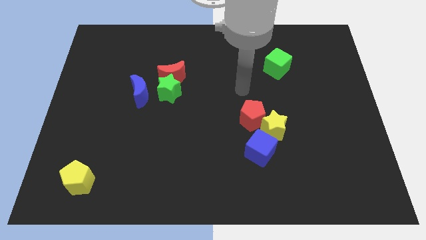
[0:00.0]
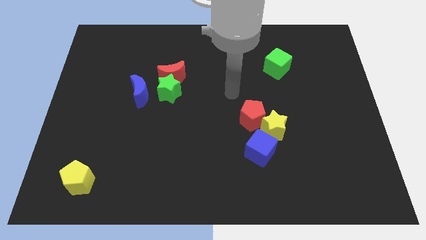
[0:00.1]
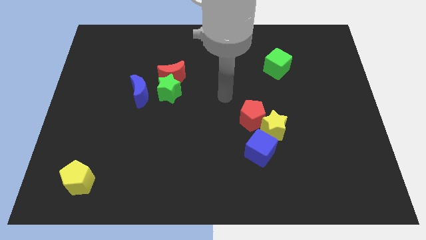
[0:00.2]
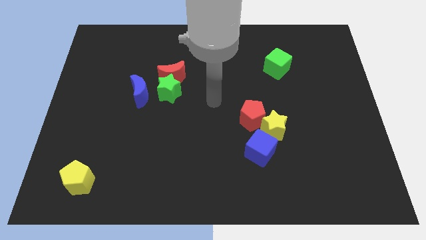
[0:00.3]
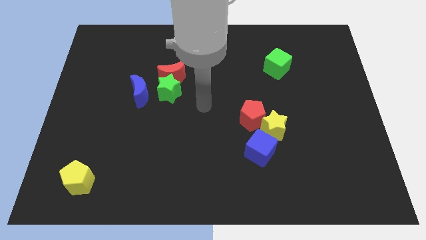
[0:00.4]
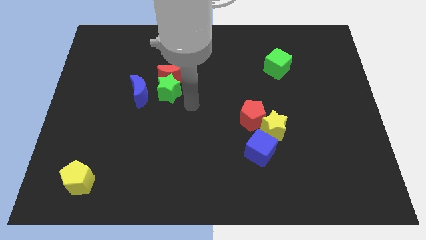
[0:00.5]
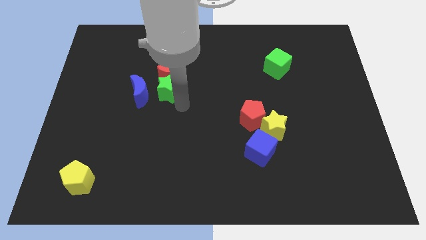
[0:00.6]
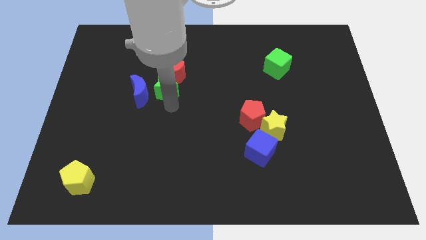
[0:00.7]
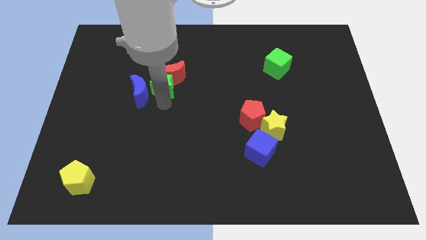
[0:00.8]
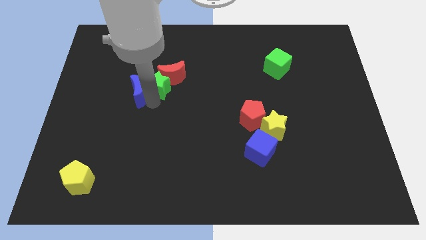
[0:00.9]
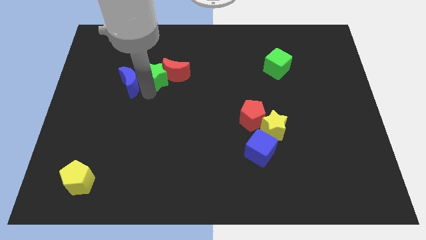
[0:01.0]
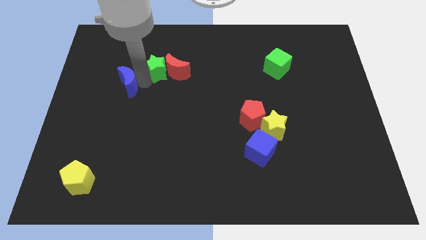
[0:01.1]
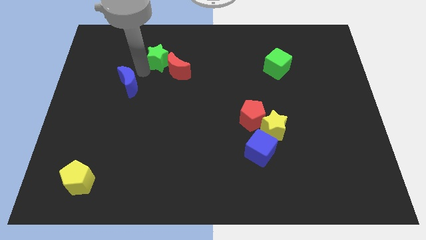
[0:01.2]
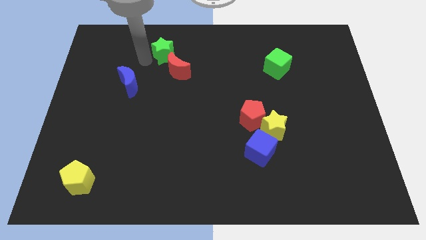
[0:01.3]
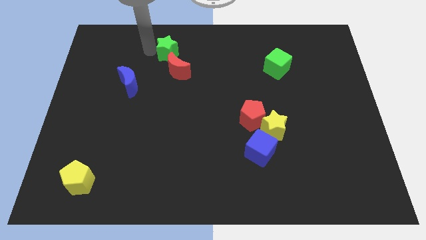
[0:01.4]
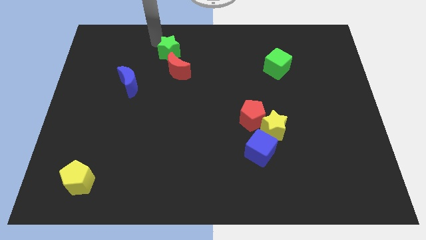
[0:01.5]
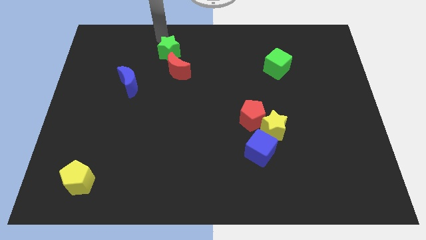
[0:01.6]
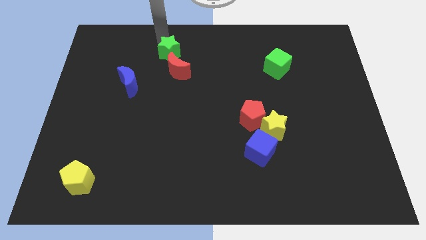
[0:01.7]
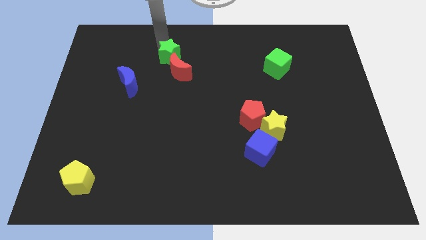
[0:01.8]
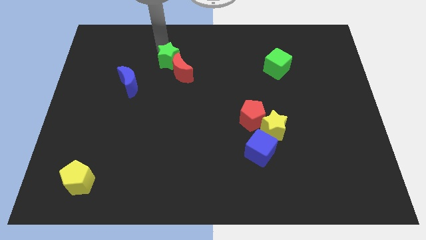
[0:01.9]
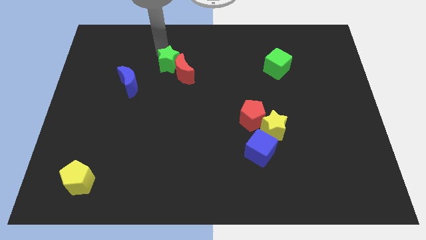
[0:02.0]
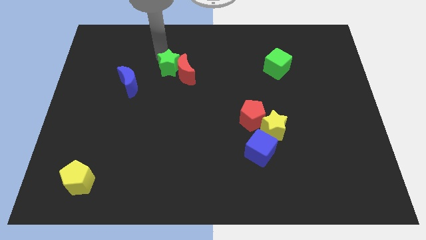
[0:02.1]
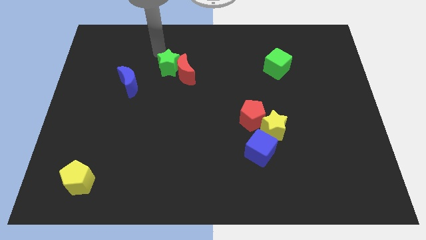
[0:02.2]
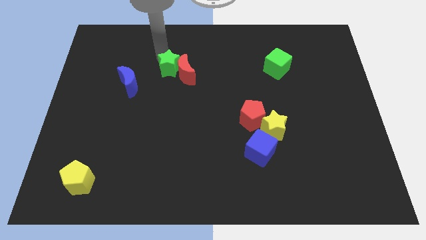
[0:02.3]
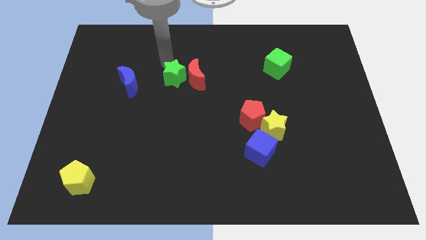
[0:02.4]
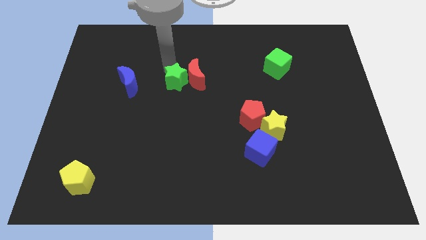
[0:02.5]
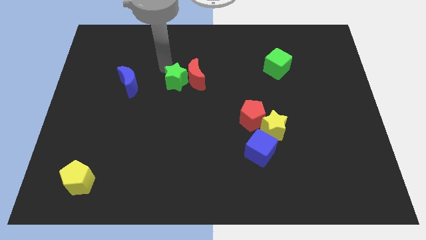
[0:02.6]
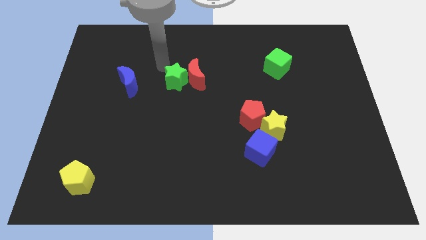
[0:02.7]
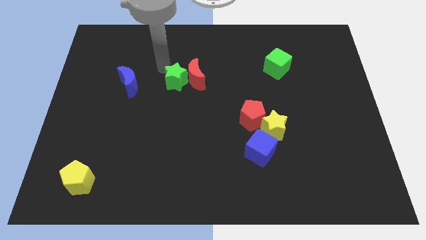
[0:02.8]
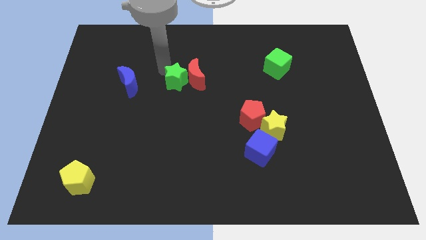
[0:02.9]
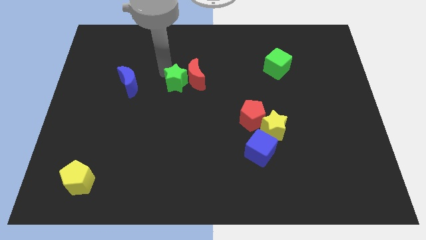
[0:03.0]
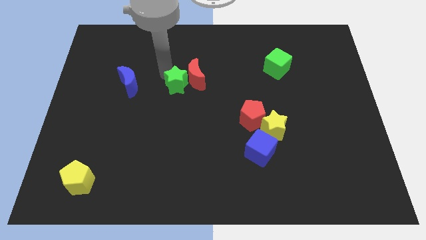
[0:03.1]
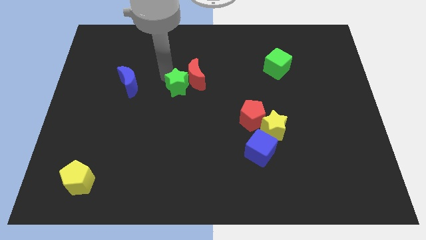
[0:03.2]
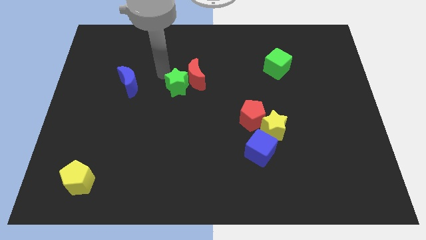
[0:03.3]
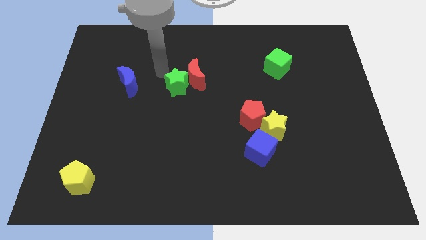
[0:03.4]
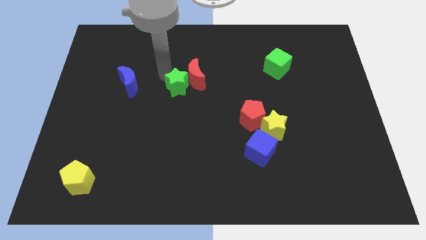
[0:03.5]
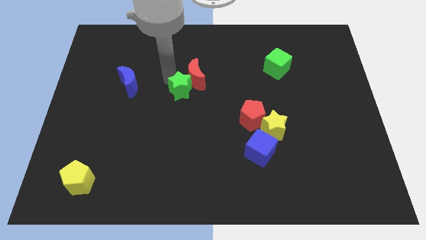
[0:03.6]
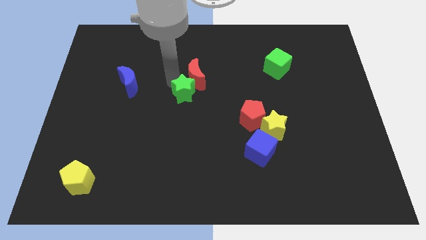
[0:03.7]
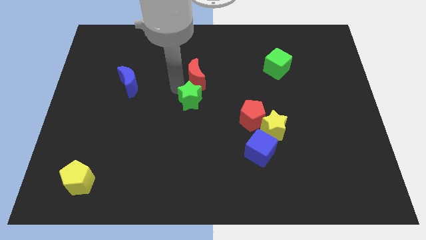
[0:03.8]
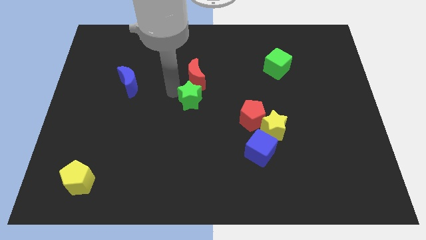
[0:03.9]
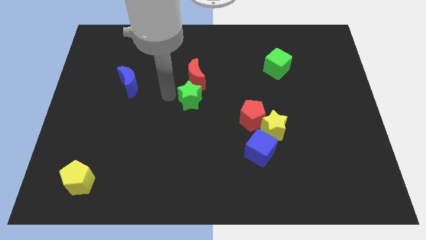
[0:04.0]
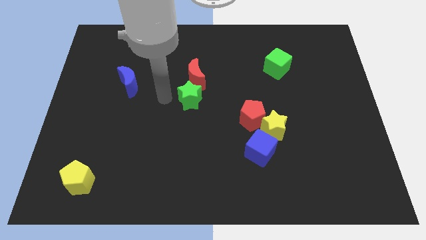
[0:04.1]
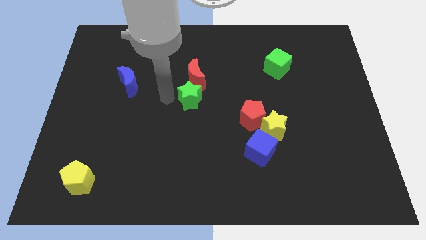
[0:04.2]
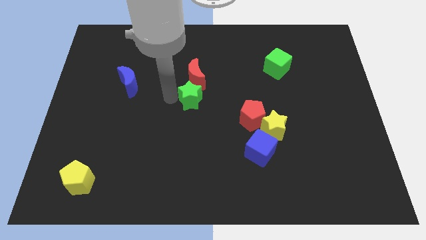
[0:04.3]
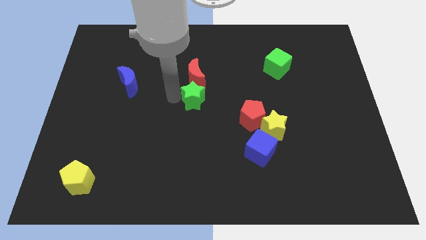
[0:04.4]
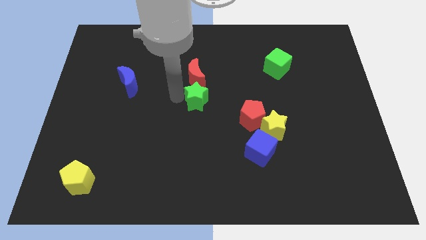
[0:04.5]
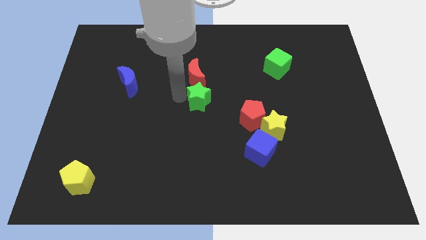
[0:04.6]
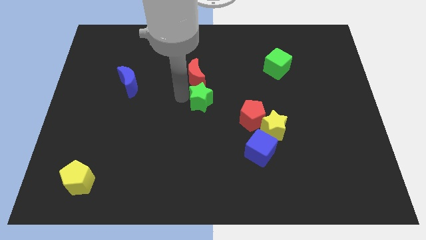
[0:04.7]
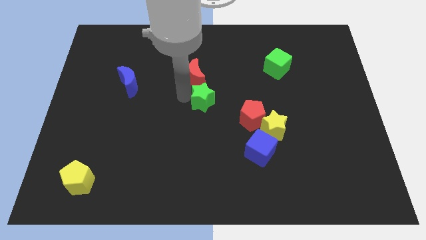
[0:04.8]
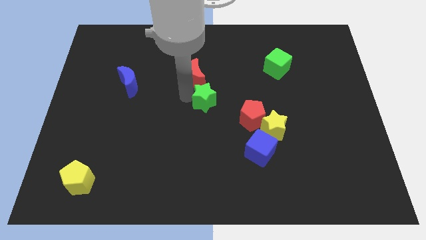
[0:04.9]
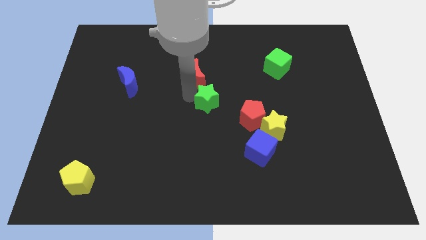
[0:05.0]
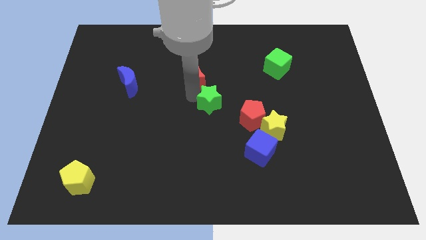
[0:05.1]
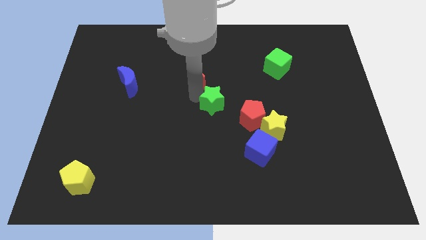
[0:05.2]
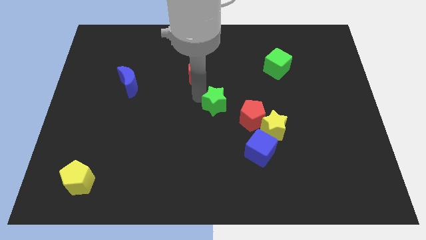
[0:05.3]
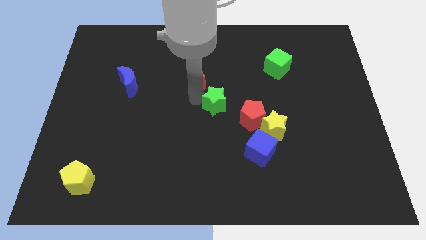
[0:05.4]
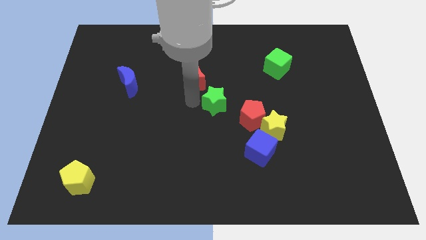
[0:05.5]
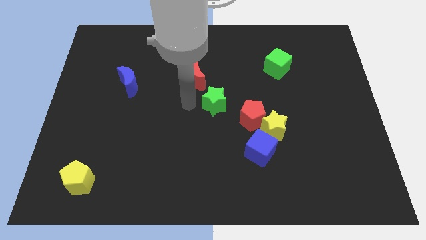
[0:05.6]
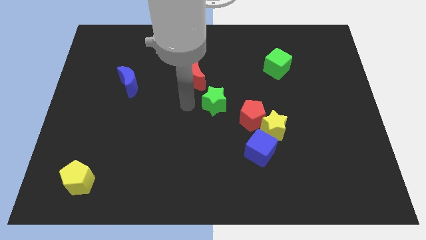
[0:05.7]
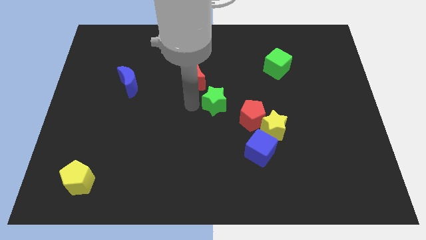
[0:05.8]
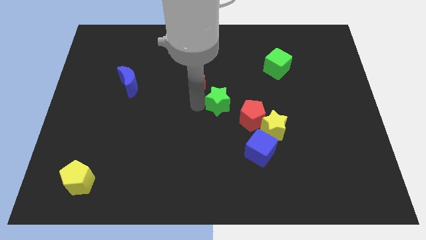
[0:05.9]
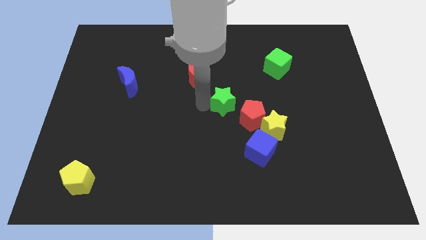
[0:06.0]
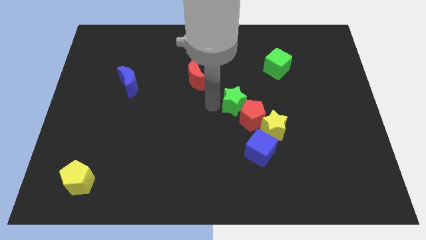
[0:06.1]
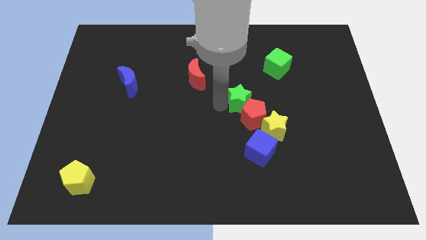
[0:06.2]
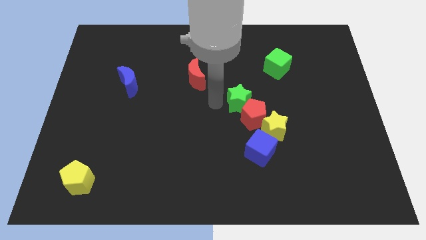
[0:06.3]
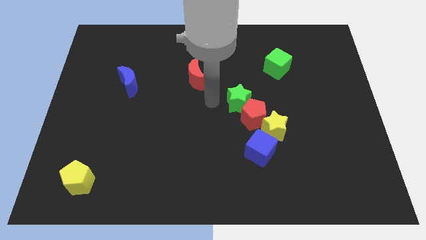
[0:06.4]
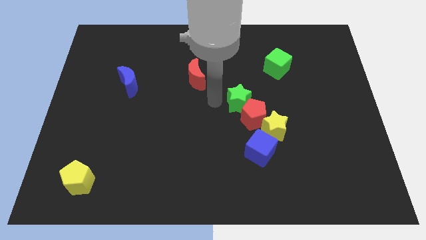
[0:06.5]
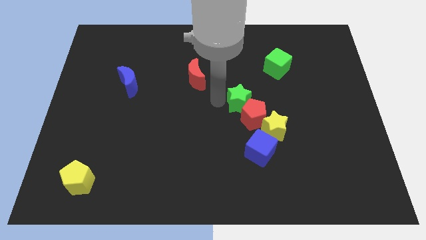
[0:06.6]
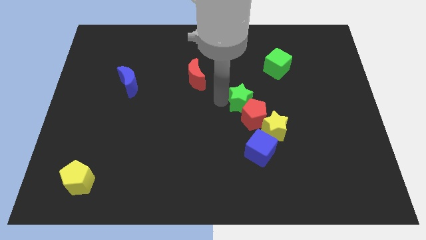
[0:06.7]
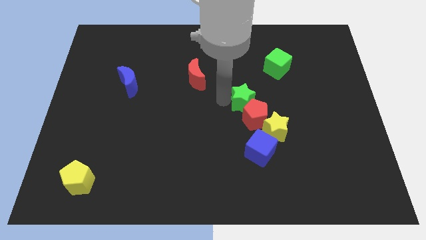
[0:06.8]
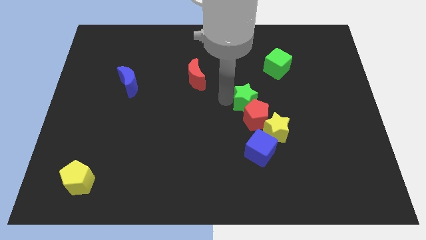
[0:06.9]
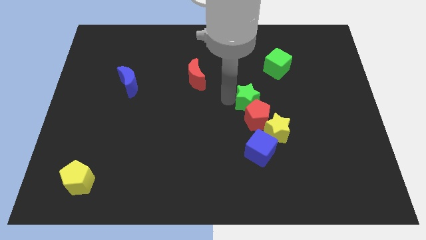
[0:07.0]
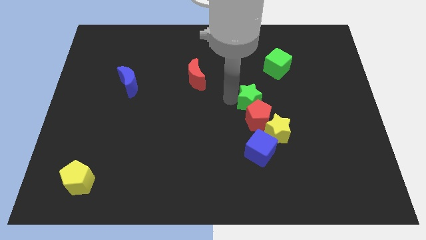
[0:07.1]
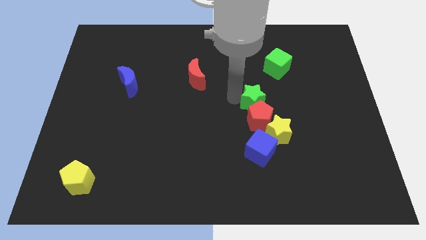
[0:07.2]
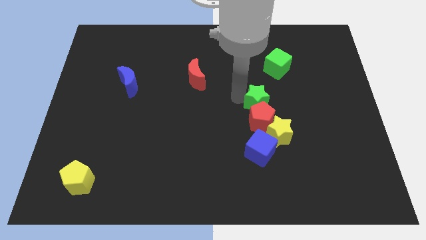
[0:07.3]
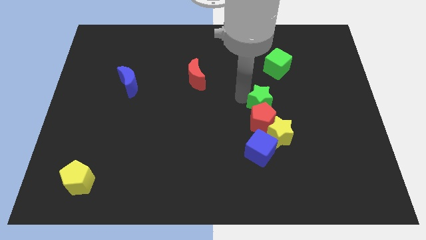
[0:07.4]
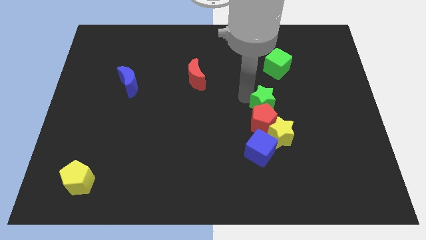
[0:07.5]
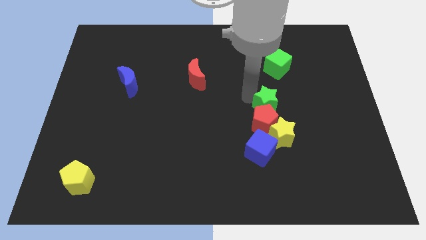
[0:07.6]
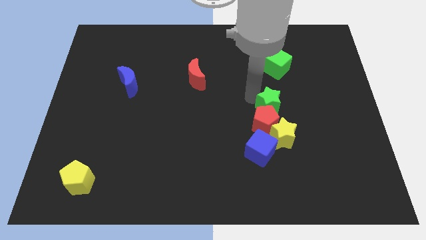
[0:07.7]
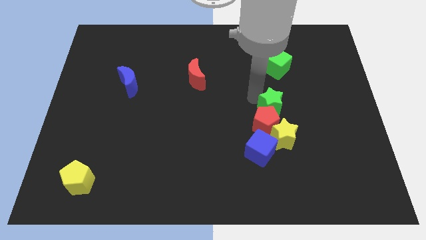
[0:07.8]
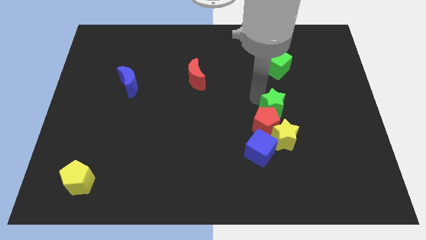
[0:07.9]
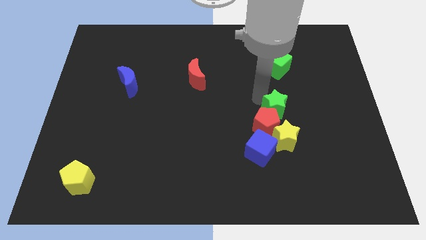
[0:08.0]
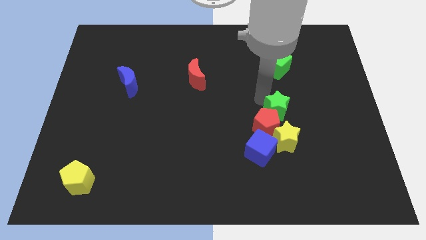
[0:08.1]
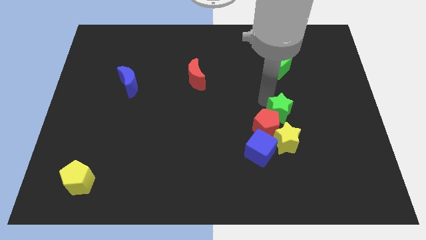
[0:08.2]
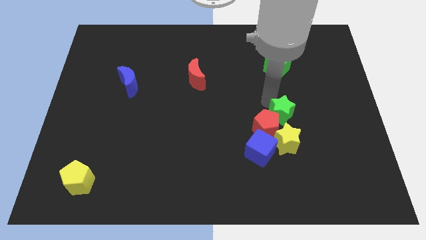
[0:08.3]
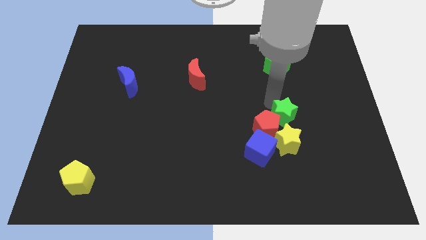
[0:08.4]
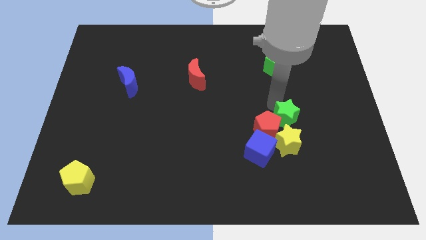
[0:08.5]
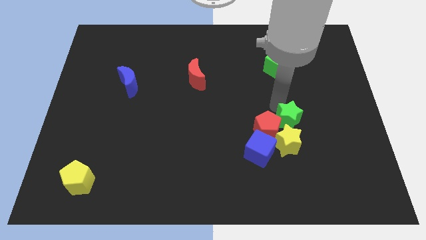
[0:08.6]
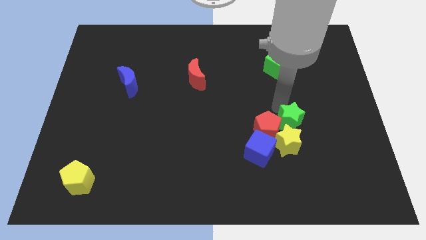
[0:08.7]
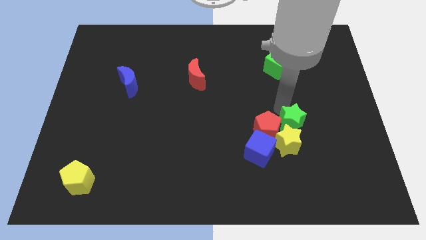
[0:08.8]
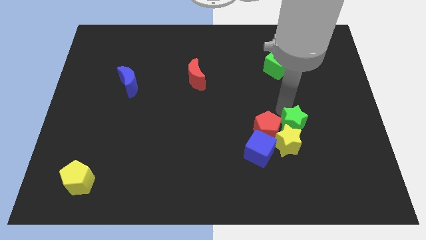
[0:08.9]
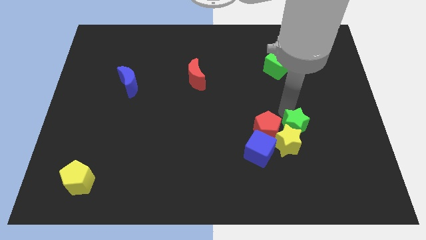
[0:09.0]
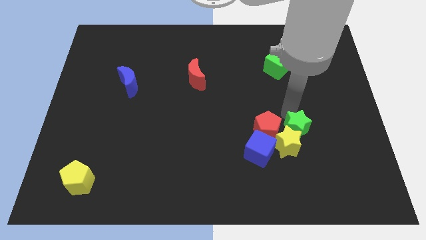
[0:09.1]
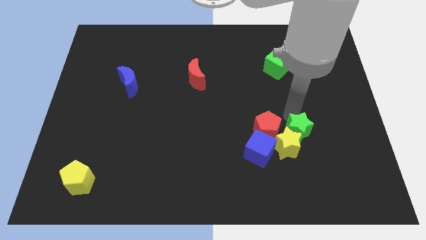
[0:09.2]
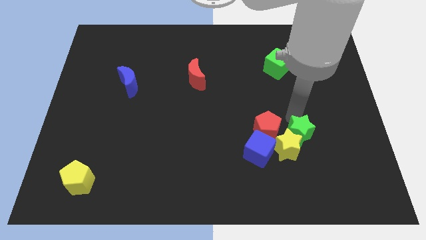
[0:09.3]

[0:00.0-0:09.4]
push the green star to the right of the blue cube
